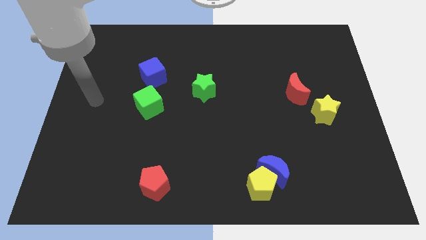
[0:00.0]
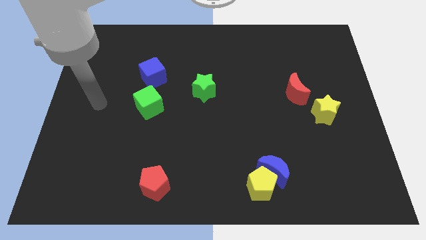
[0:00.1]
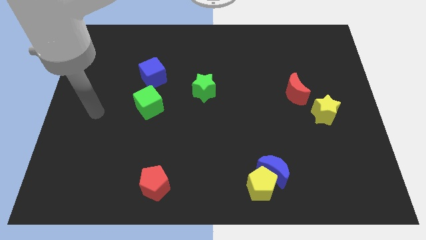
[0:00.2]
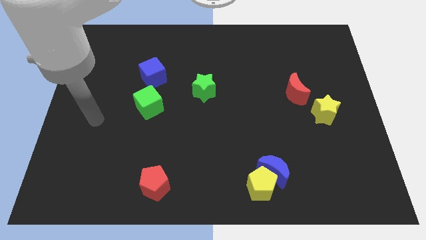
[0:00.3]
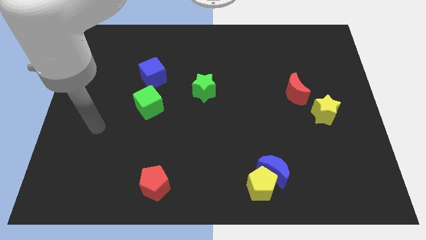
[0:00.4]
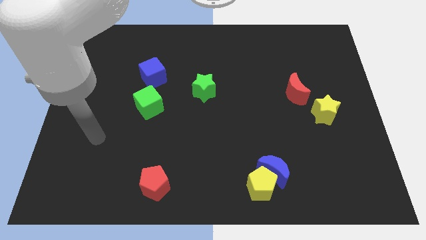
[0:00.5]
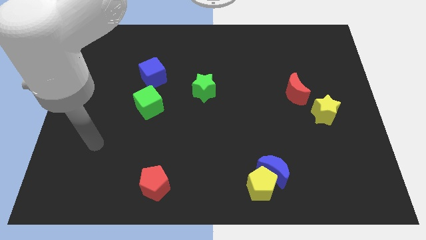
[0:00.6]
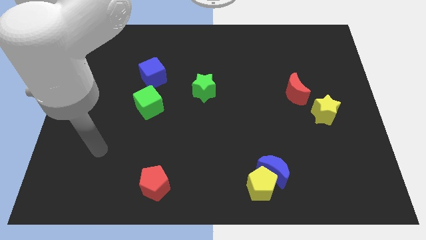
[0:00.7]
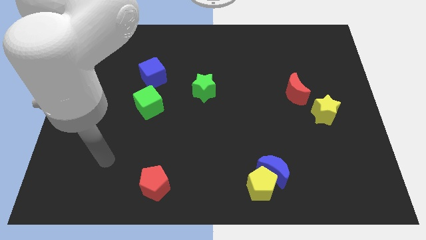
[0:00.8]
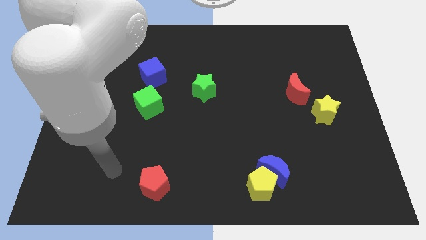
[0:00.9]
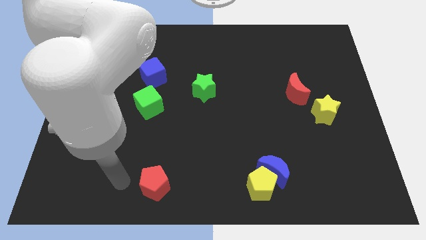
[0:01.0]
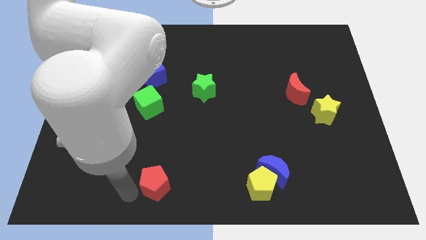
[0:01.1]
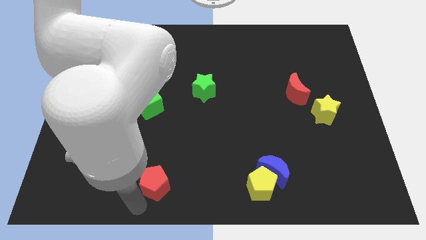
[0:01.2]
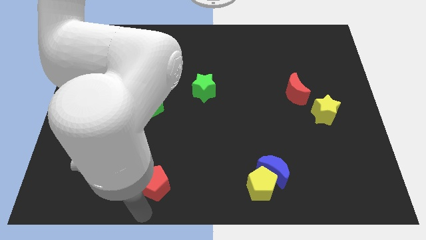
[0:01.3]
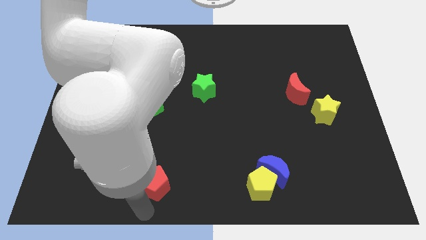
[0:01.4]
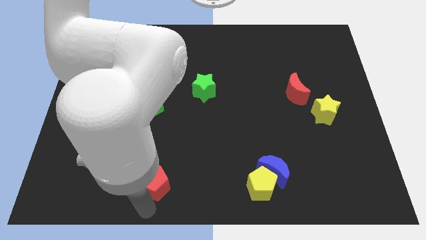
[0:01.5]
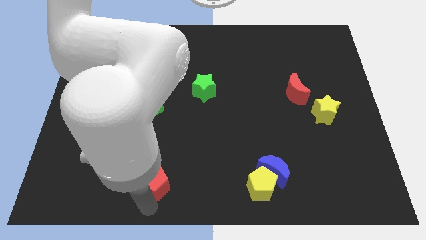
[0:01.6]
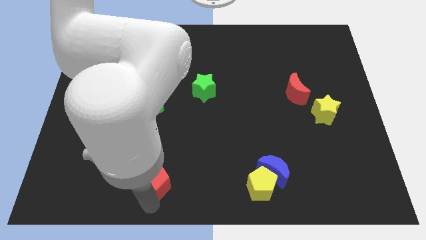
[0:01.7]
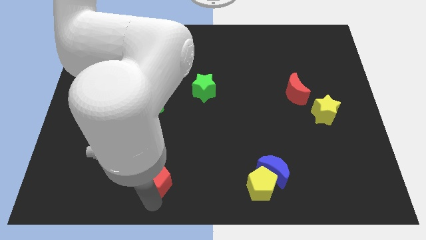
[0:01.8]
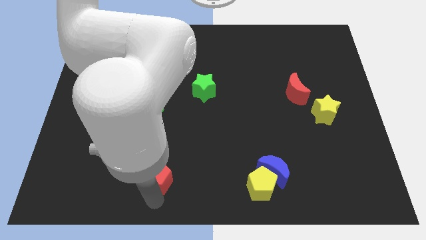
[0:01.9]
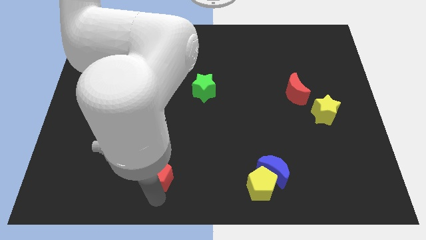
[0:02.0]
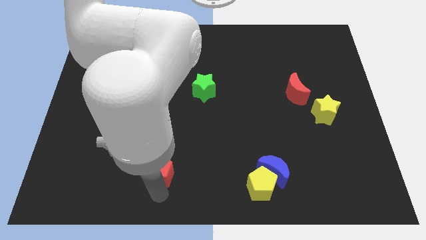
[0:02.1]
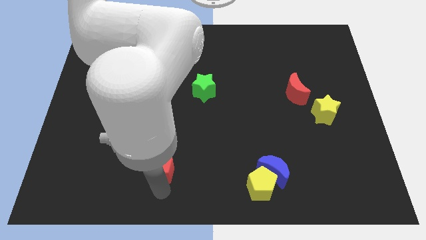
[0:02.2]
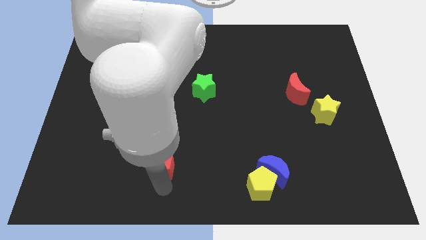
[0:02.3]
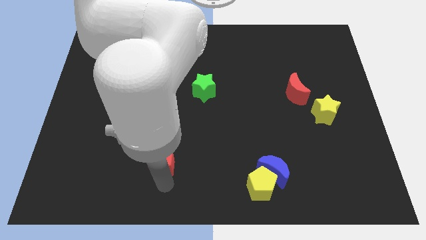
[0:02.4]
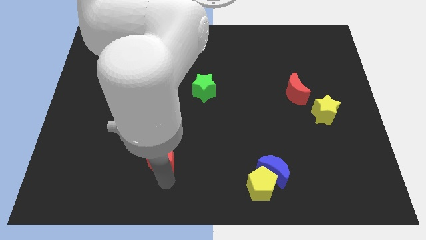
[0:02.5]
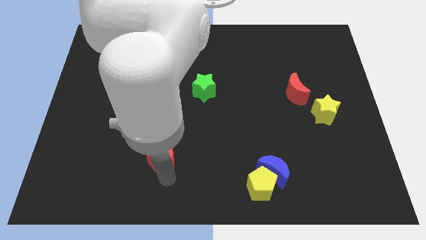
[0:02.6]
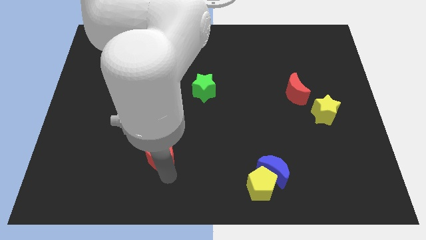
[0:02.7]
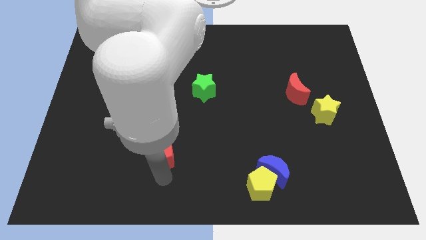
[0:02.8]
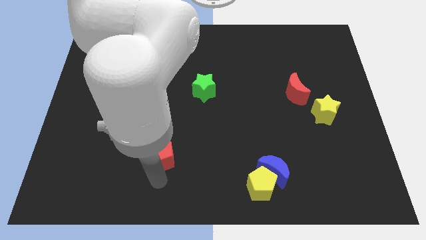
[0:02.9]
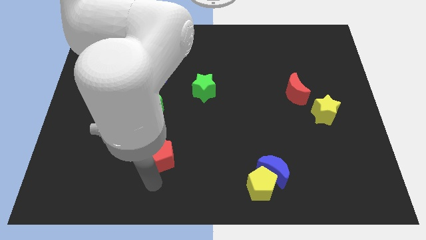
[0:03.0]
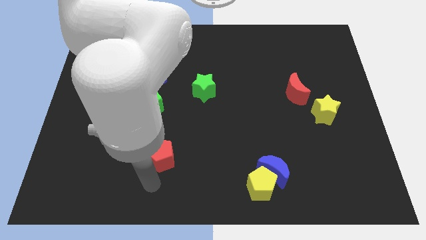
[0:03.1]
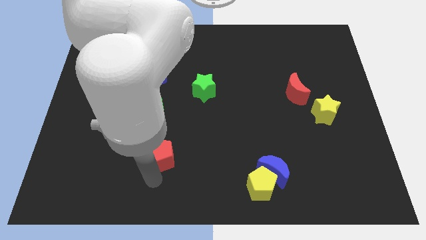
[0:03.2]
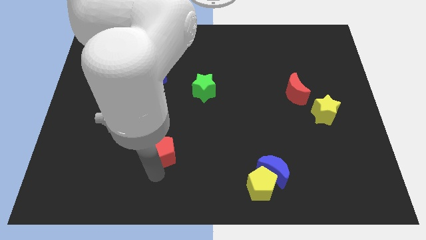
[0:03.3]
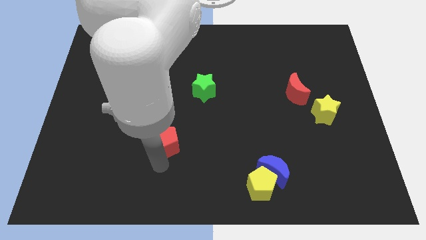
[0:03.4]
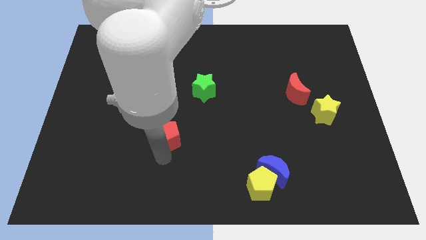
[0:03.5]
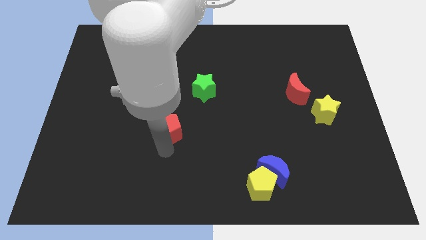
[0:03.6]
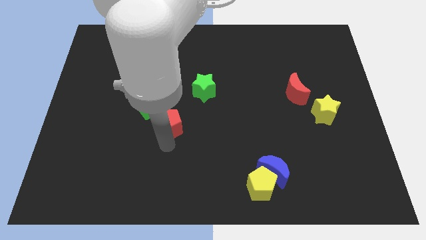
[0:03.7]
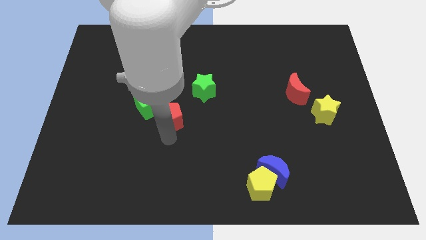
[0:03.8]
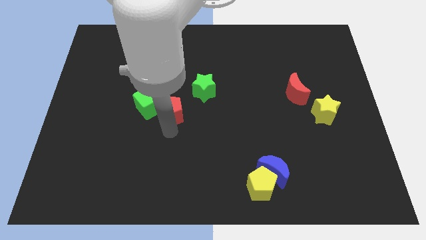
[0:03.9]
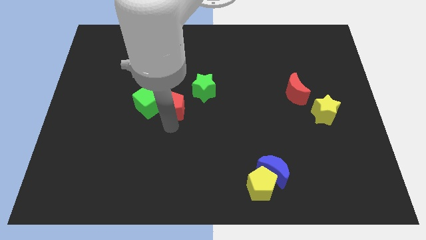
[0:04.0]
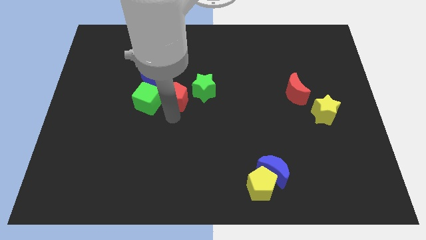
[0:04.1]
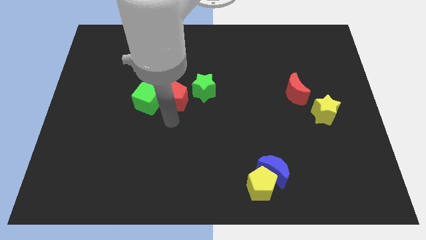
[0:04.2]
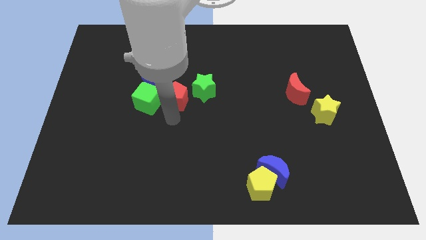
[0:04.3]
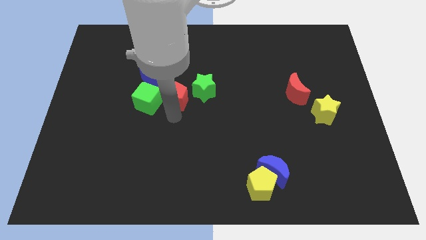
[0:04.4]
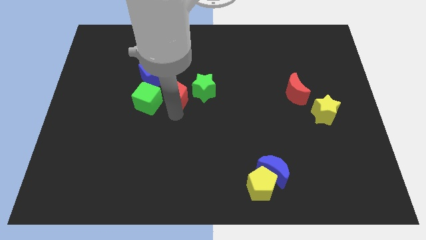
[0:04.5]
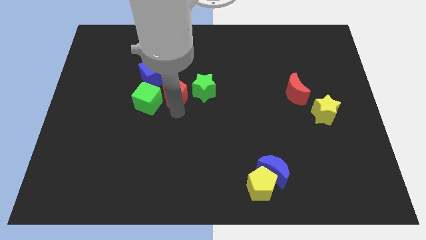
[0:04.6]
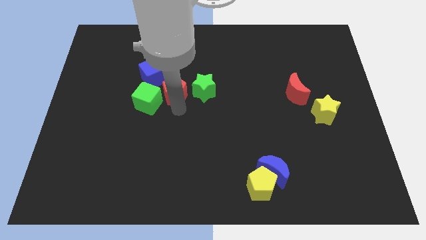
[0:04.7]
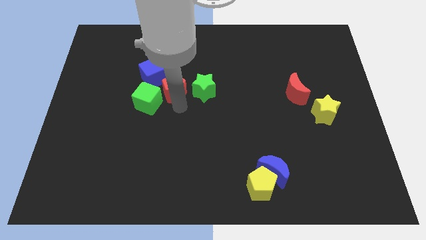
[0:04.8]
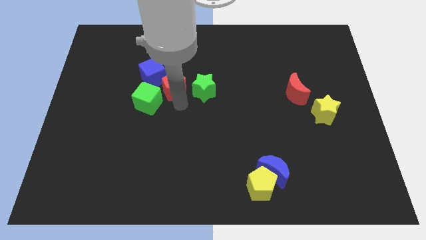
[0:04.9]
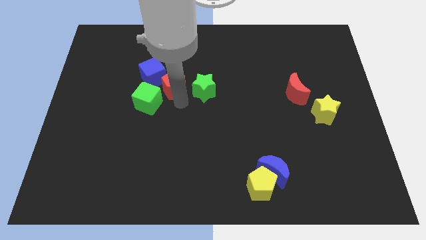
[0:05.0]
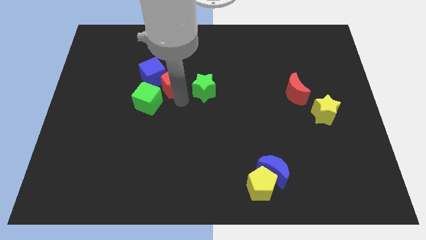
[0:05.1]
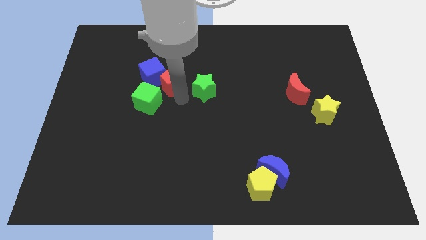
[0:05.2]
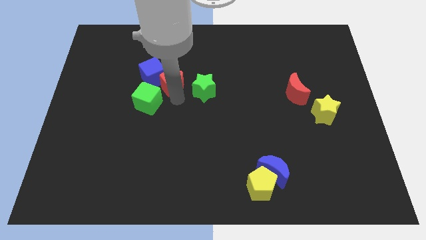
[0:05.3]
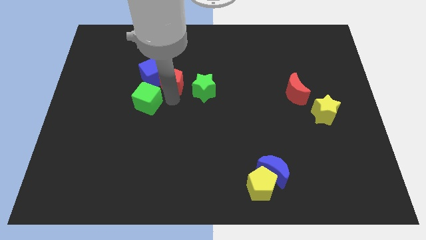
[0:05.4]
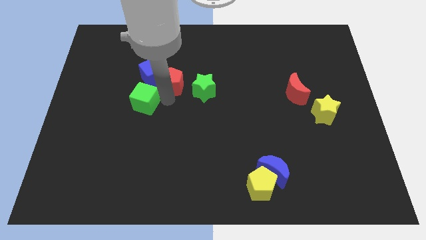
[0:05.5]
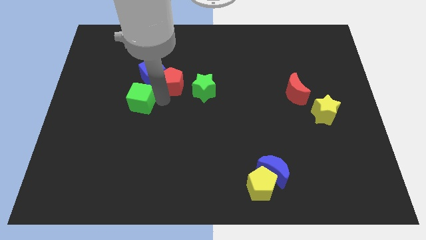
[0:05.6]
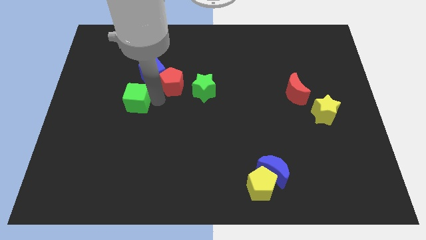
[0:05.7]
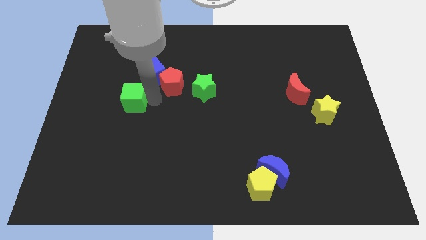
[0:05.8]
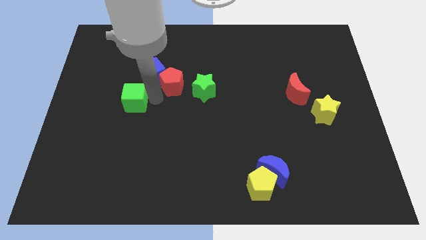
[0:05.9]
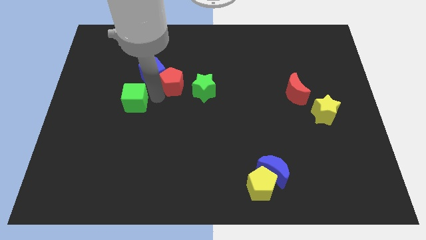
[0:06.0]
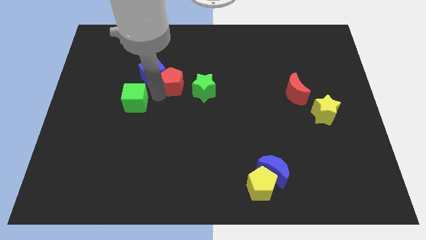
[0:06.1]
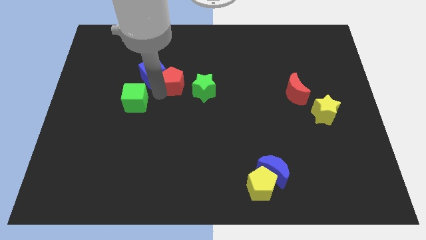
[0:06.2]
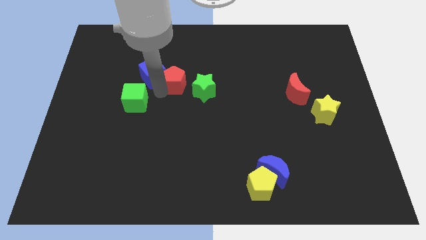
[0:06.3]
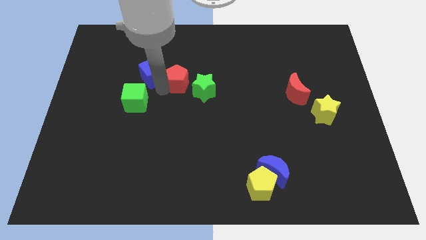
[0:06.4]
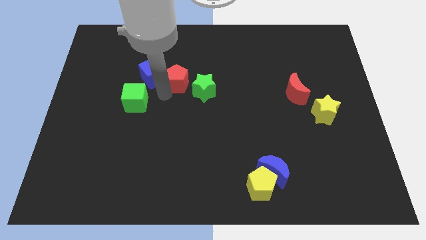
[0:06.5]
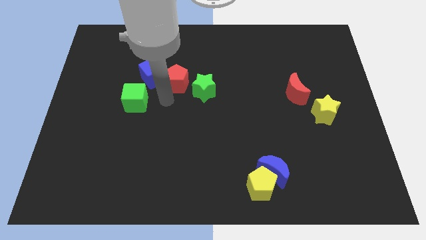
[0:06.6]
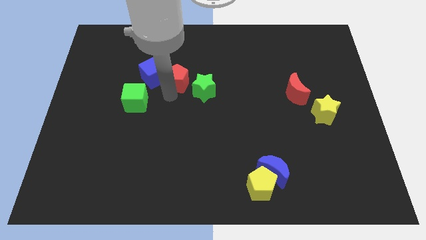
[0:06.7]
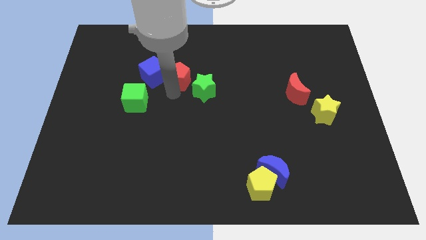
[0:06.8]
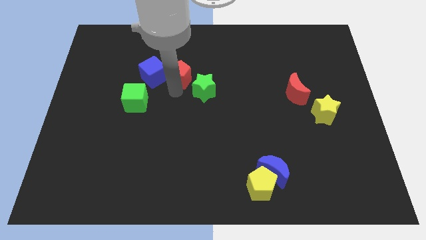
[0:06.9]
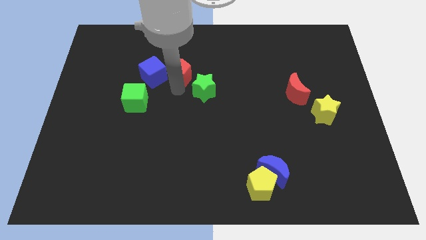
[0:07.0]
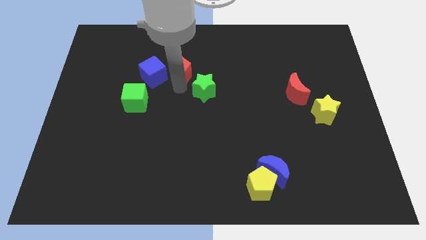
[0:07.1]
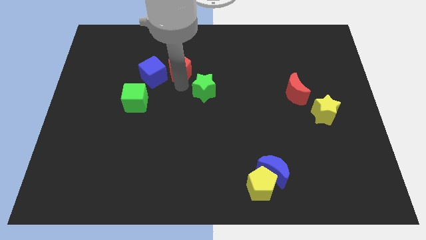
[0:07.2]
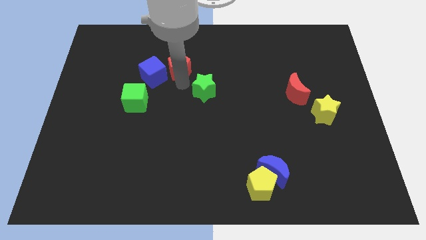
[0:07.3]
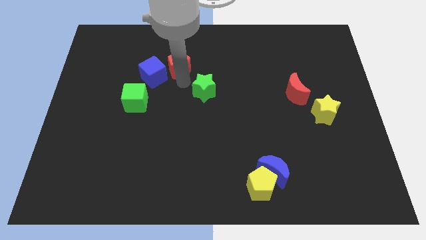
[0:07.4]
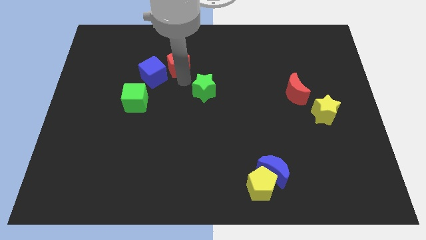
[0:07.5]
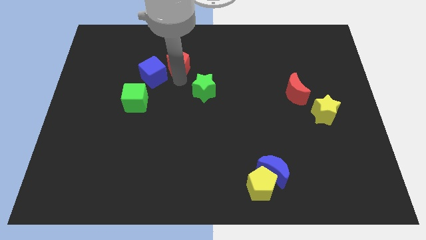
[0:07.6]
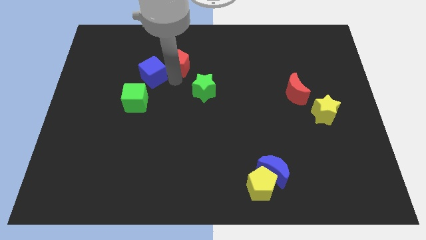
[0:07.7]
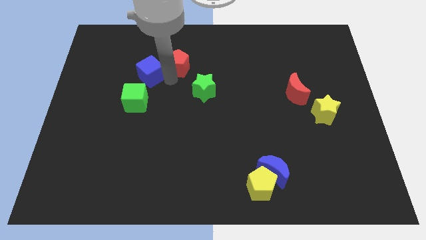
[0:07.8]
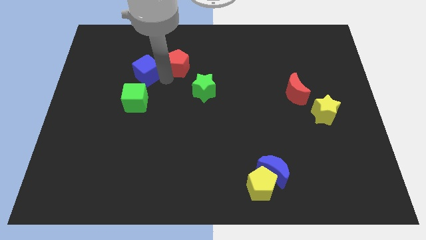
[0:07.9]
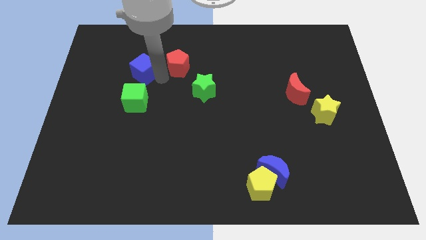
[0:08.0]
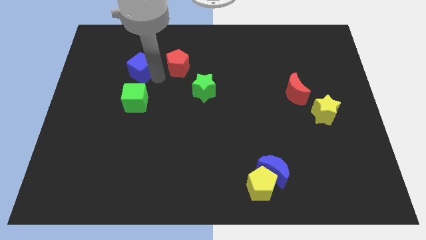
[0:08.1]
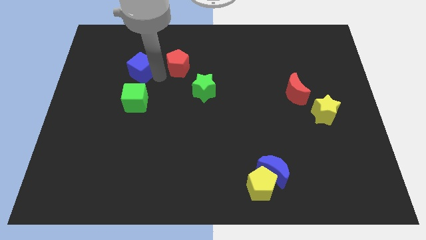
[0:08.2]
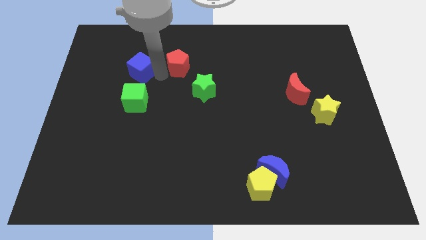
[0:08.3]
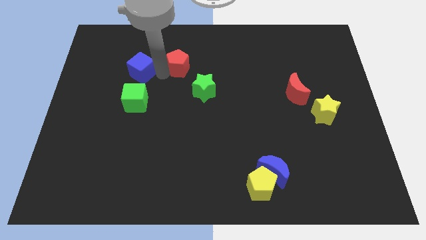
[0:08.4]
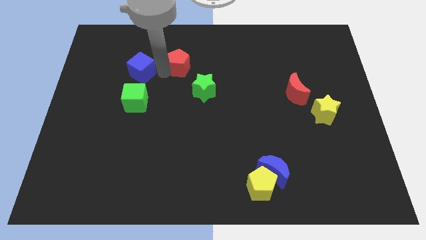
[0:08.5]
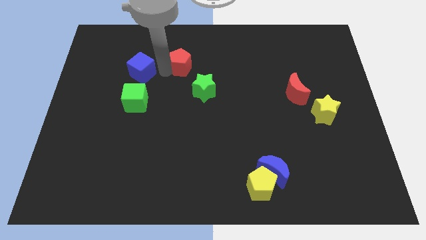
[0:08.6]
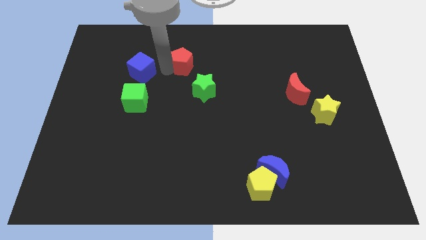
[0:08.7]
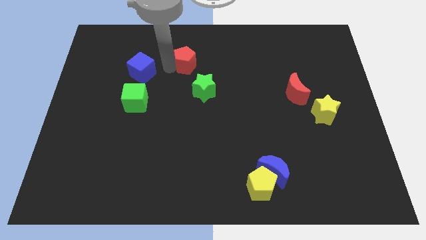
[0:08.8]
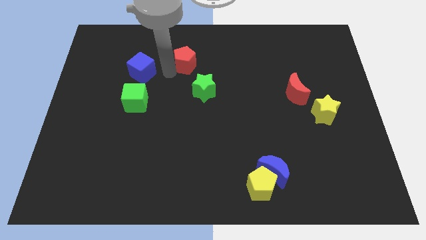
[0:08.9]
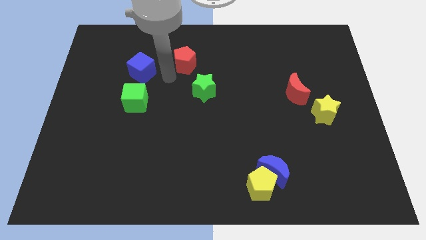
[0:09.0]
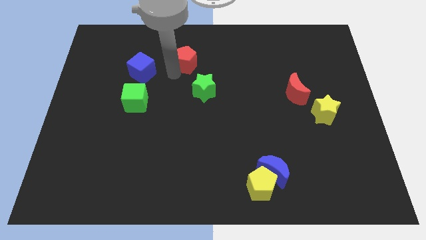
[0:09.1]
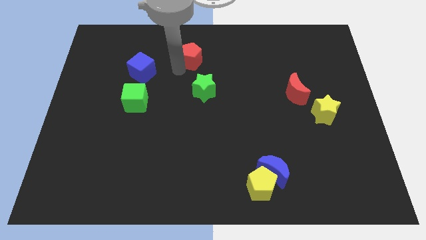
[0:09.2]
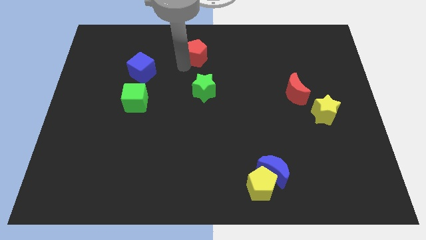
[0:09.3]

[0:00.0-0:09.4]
move the red pentagon to the top side
